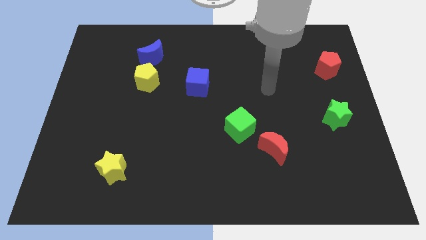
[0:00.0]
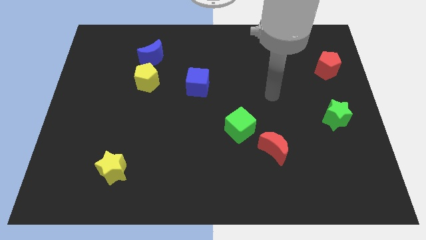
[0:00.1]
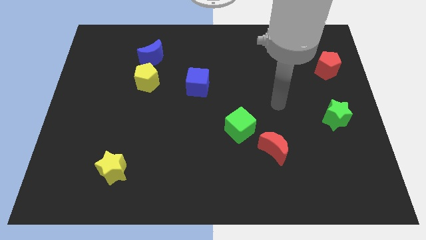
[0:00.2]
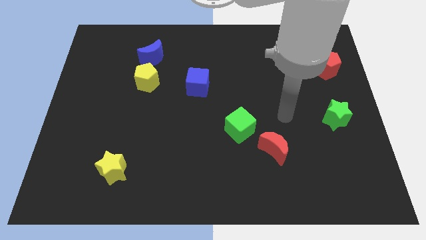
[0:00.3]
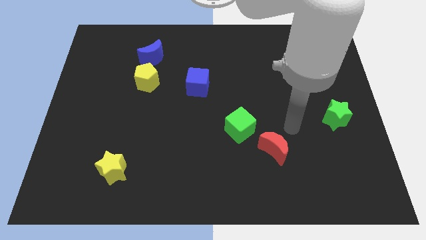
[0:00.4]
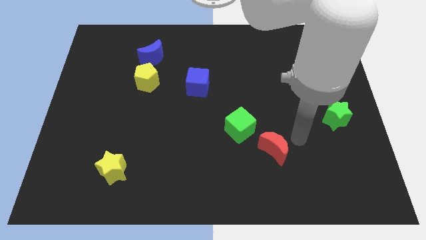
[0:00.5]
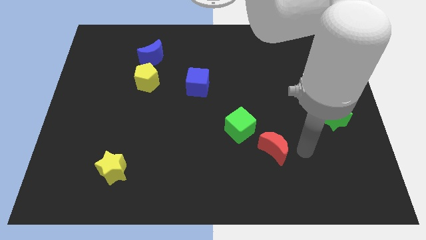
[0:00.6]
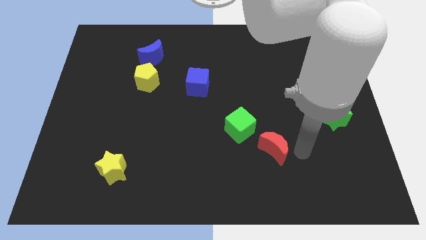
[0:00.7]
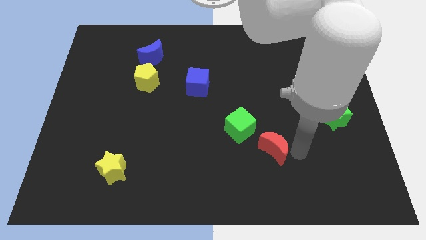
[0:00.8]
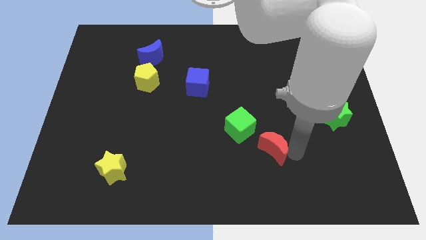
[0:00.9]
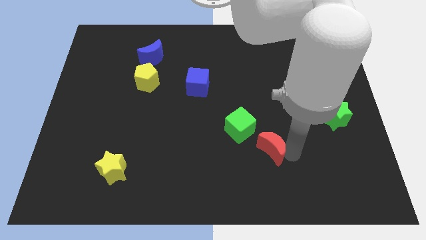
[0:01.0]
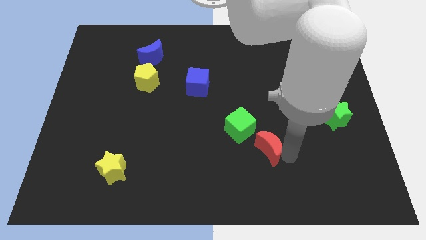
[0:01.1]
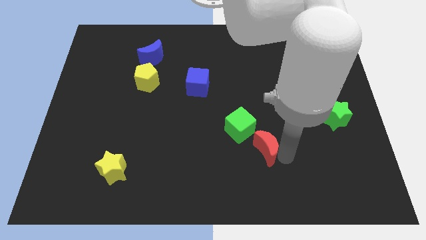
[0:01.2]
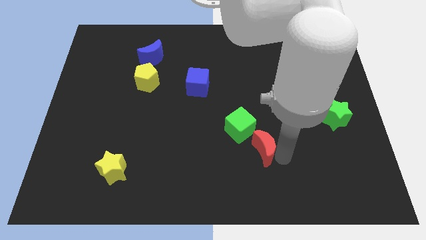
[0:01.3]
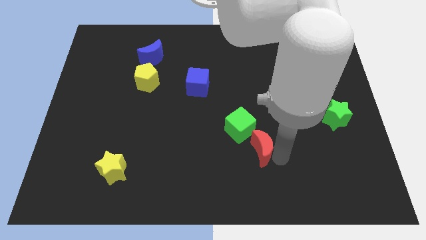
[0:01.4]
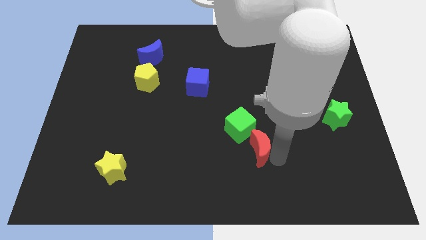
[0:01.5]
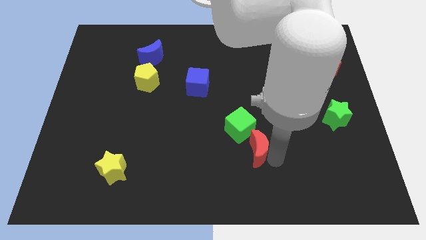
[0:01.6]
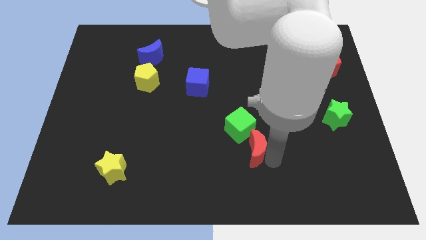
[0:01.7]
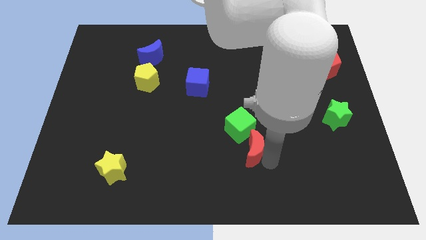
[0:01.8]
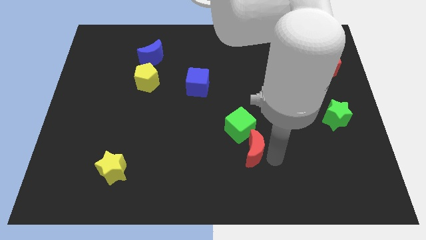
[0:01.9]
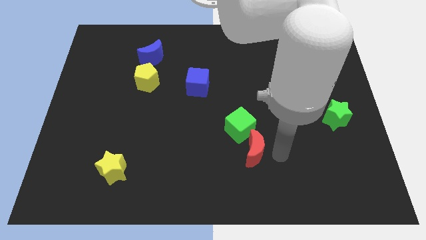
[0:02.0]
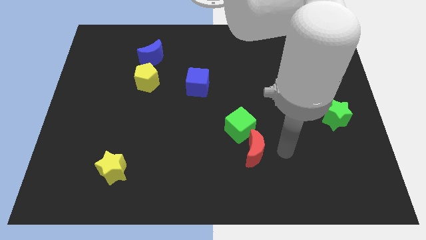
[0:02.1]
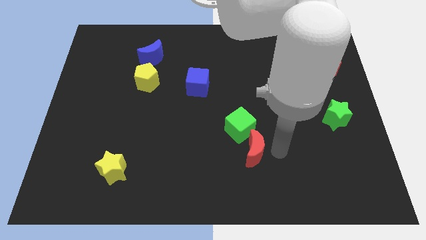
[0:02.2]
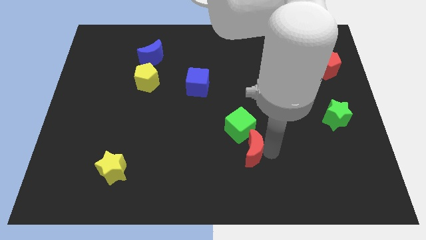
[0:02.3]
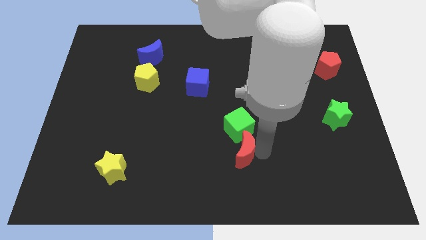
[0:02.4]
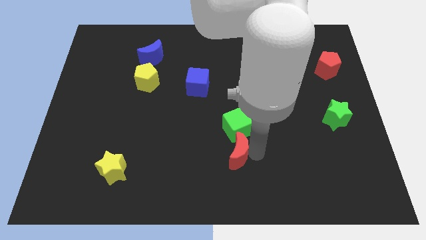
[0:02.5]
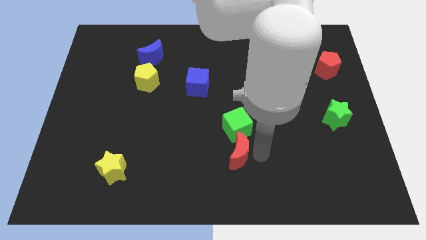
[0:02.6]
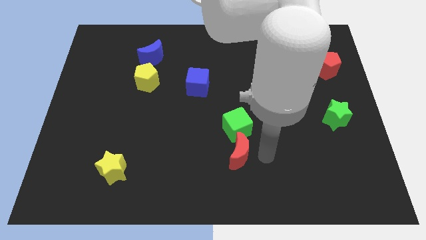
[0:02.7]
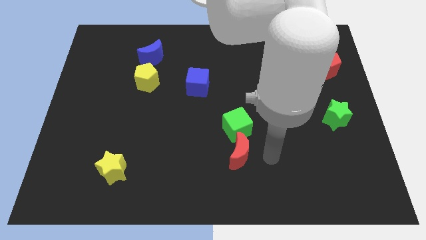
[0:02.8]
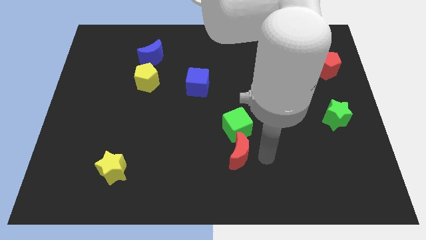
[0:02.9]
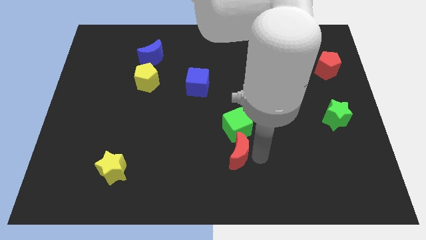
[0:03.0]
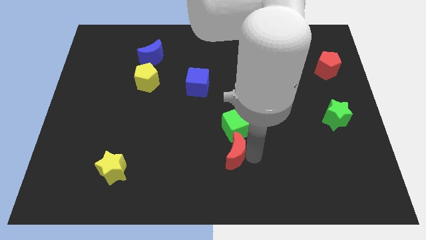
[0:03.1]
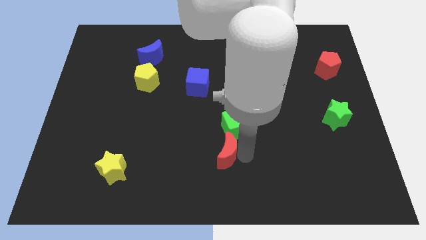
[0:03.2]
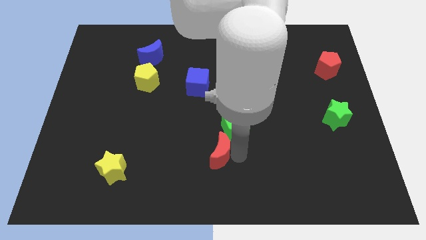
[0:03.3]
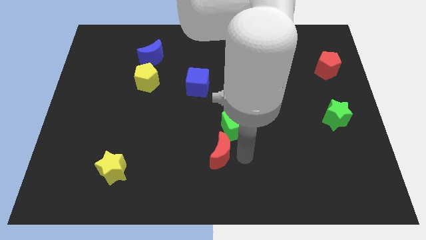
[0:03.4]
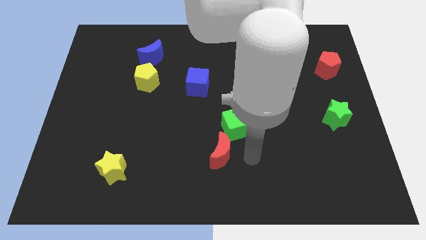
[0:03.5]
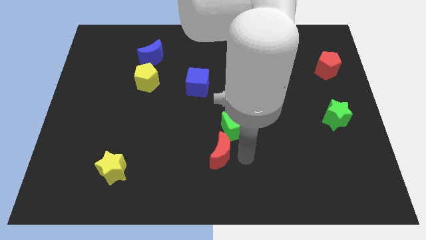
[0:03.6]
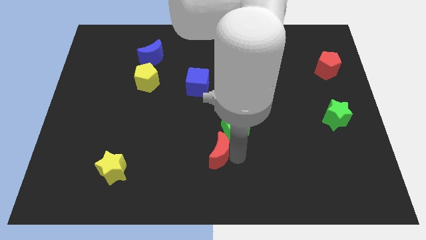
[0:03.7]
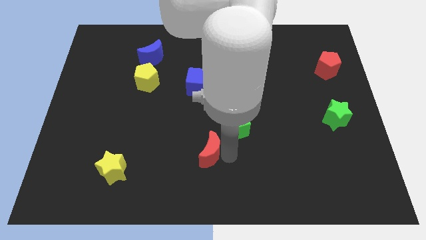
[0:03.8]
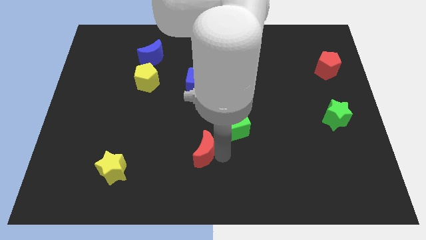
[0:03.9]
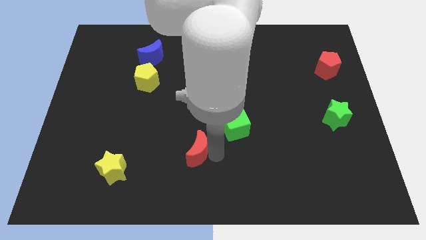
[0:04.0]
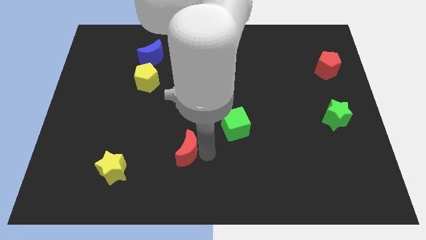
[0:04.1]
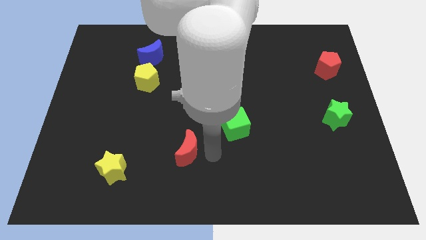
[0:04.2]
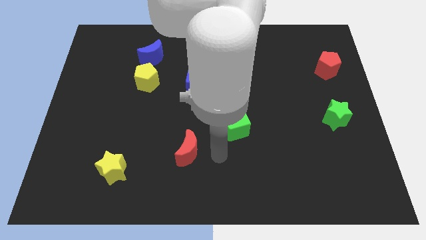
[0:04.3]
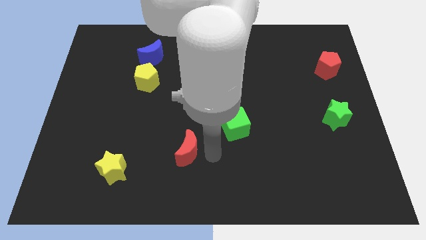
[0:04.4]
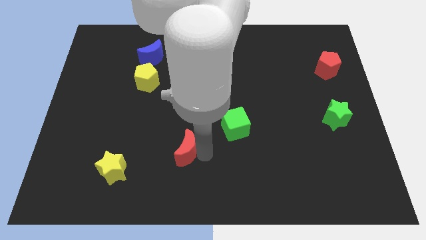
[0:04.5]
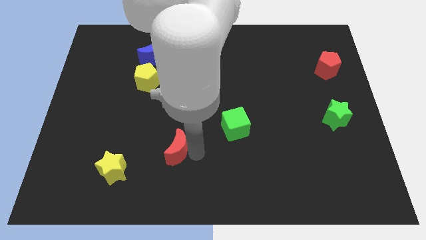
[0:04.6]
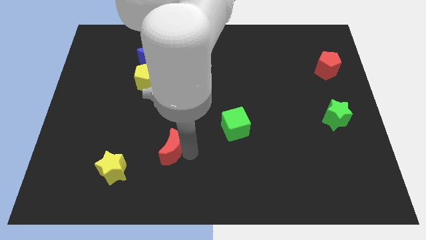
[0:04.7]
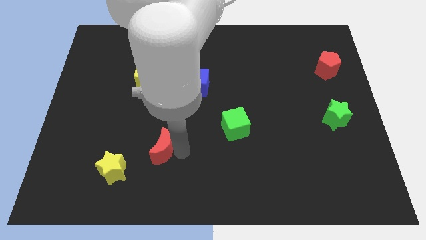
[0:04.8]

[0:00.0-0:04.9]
put the red moon to the top right of the yellow star

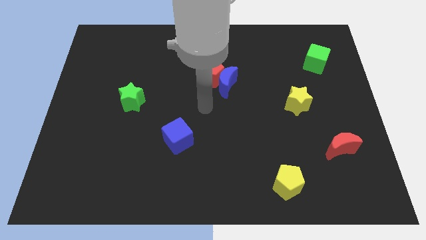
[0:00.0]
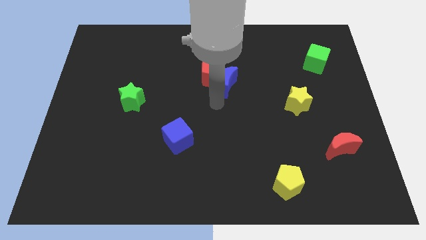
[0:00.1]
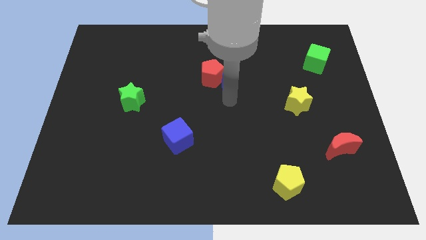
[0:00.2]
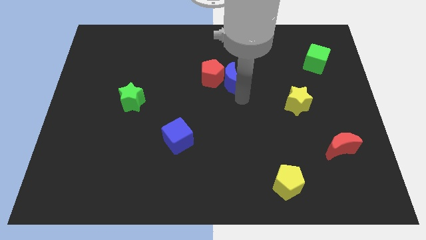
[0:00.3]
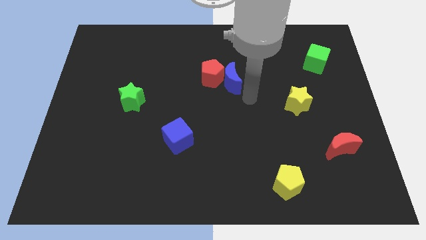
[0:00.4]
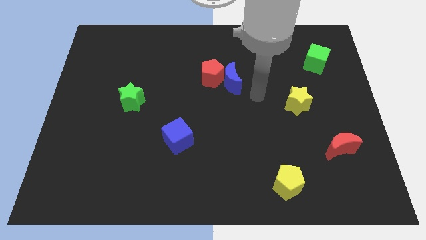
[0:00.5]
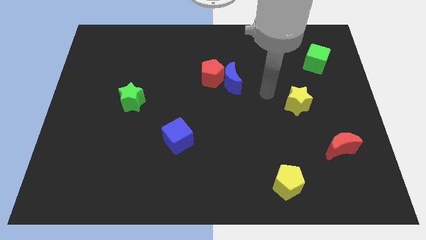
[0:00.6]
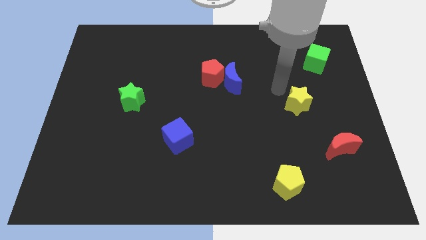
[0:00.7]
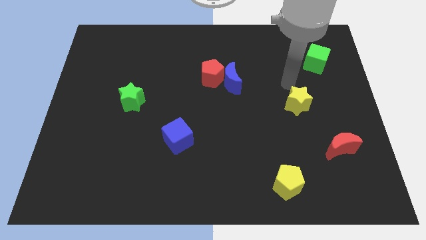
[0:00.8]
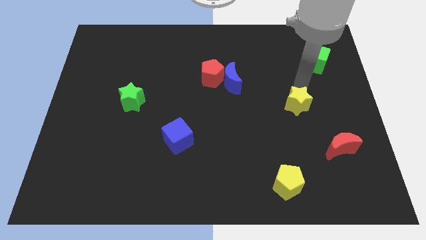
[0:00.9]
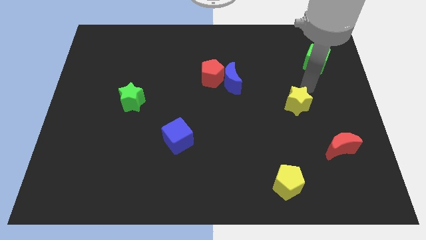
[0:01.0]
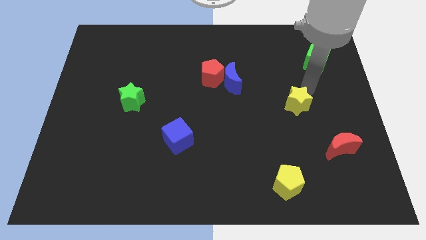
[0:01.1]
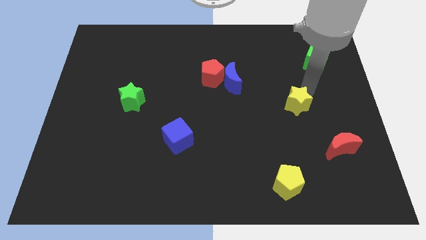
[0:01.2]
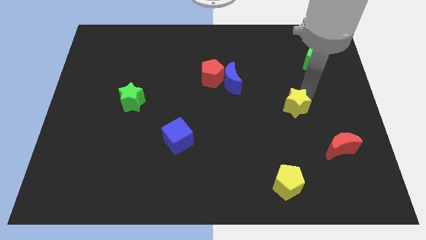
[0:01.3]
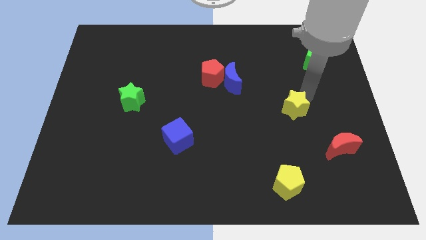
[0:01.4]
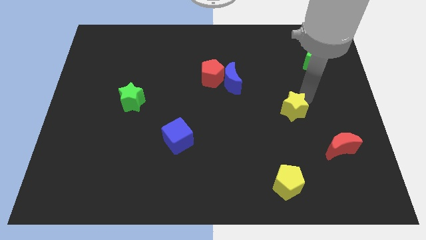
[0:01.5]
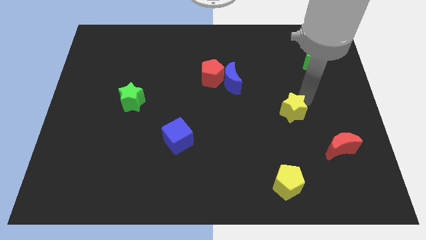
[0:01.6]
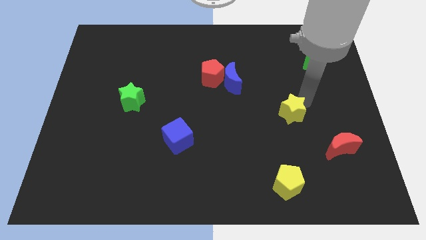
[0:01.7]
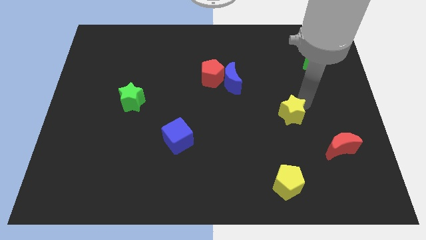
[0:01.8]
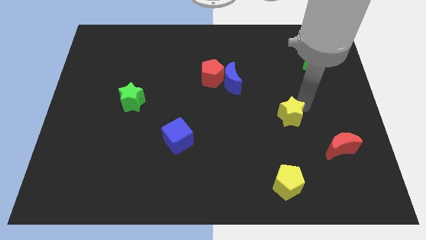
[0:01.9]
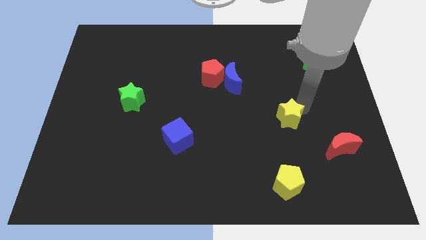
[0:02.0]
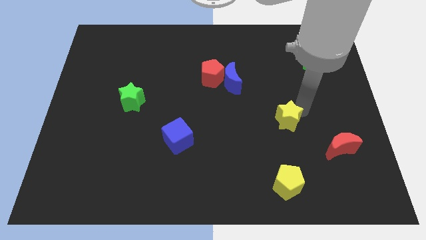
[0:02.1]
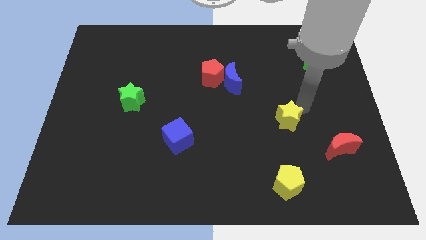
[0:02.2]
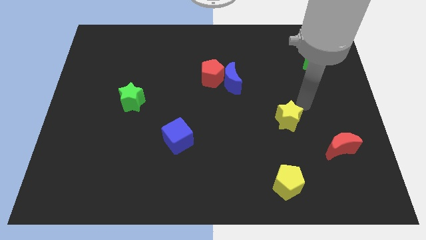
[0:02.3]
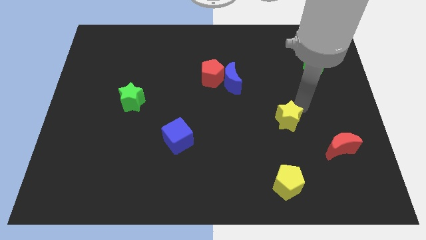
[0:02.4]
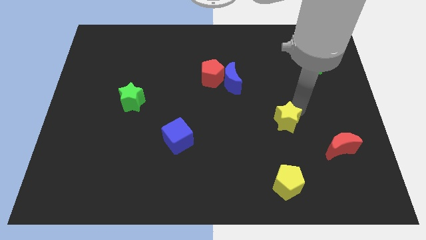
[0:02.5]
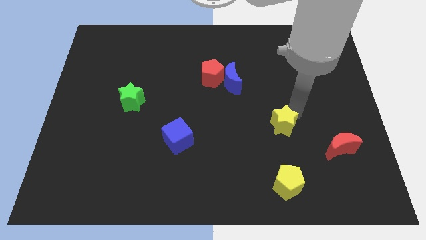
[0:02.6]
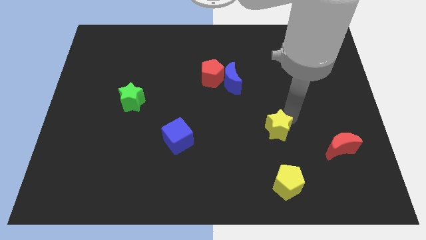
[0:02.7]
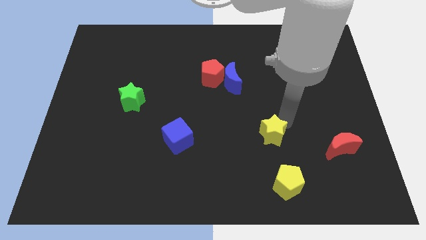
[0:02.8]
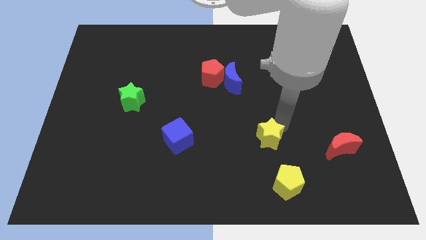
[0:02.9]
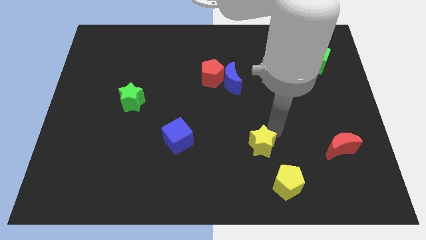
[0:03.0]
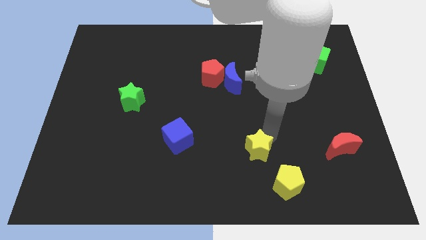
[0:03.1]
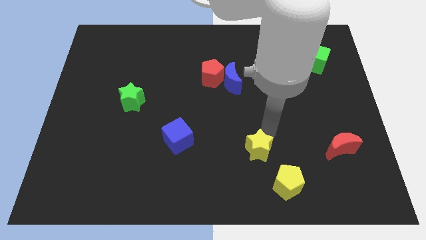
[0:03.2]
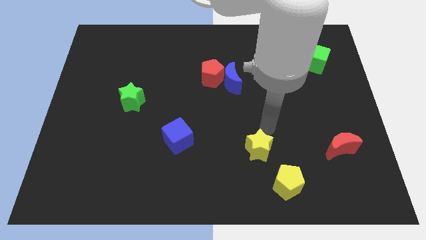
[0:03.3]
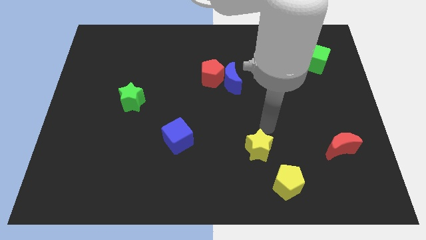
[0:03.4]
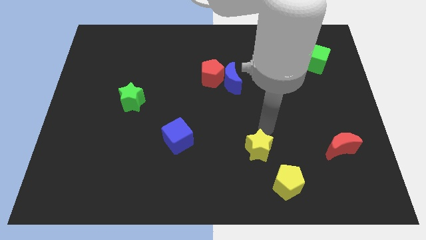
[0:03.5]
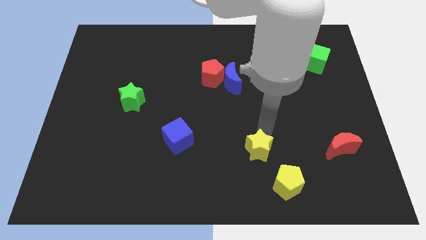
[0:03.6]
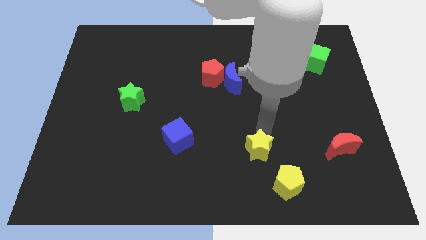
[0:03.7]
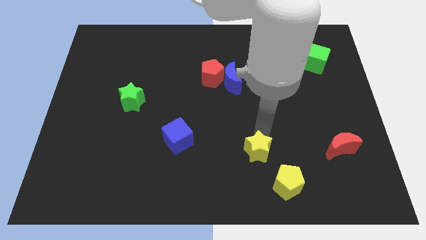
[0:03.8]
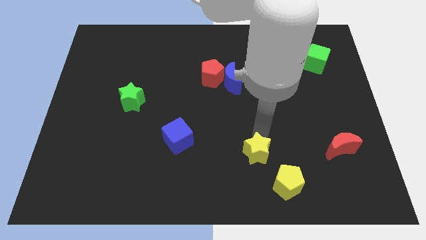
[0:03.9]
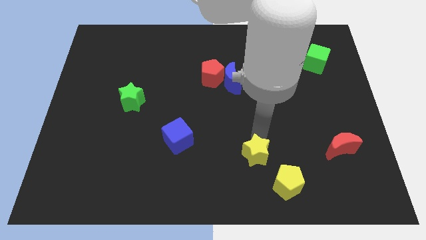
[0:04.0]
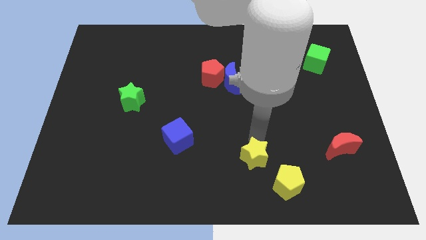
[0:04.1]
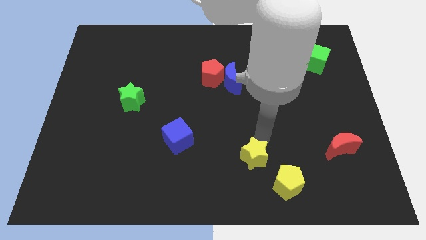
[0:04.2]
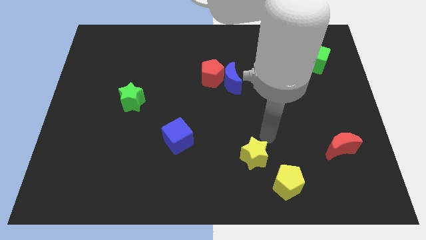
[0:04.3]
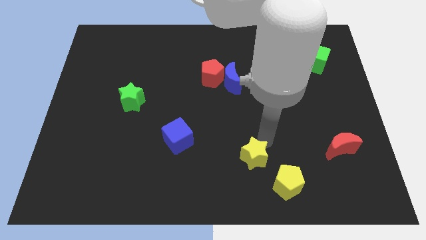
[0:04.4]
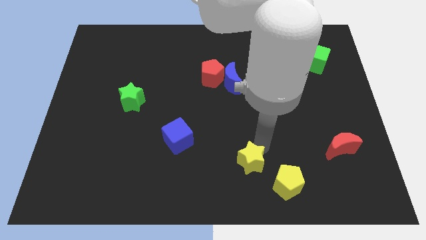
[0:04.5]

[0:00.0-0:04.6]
move the yellow star to the left side of the yellow pentagon
